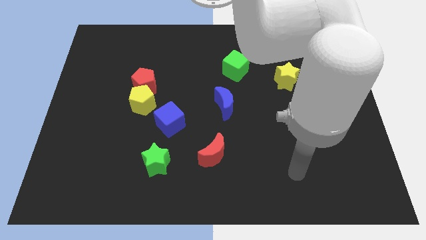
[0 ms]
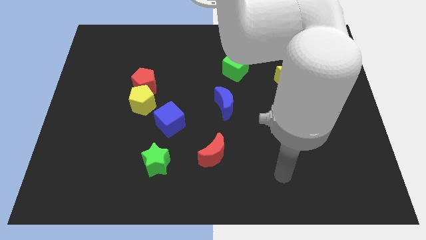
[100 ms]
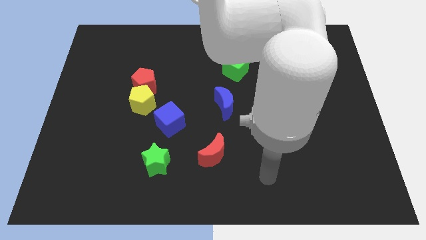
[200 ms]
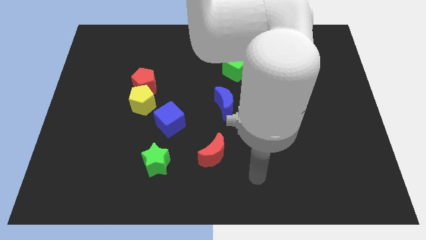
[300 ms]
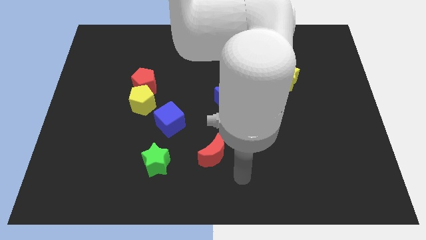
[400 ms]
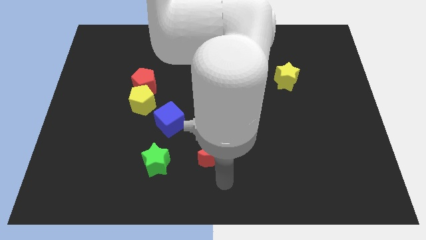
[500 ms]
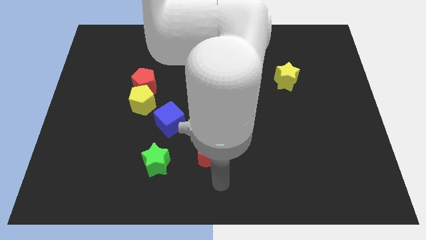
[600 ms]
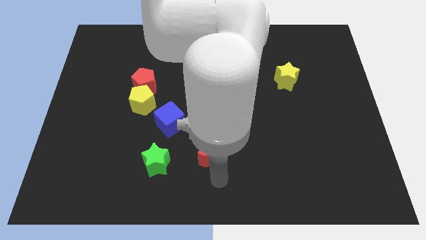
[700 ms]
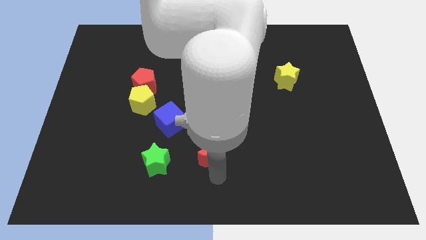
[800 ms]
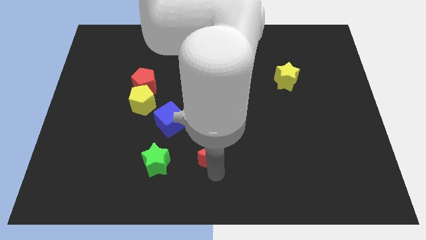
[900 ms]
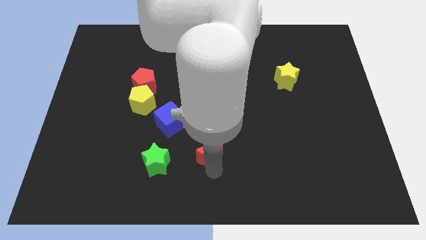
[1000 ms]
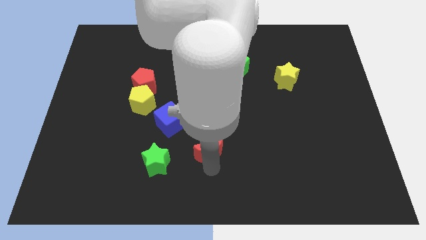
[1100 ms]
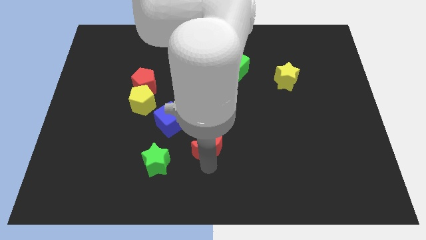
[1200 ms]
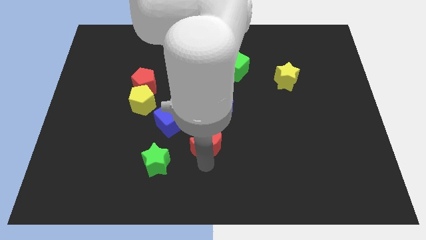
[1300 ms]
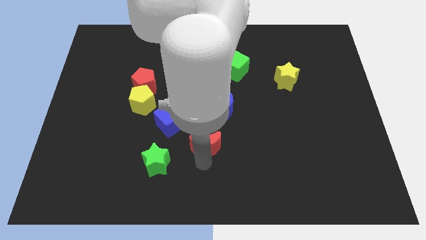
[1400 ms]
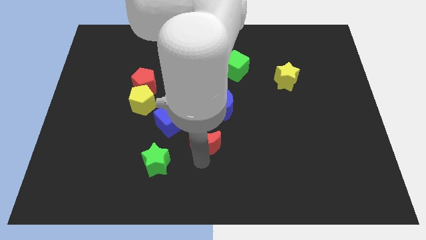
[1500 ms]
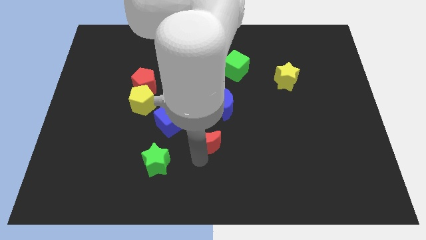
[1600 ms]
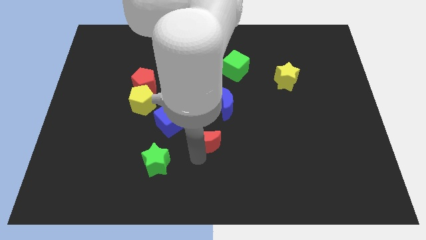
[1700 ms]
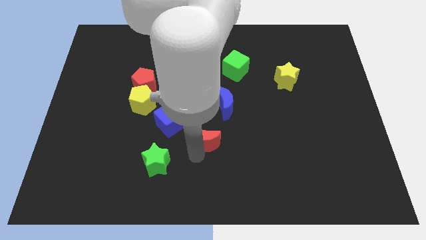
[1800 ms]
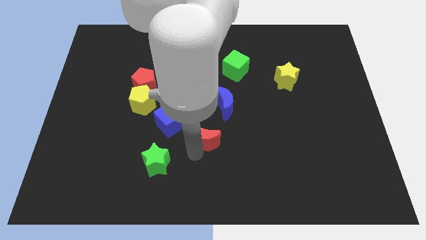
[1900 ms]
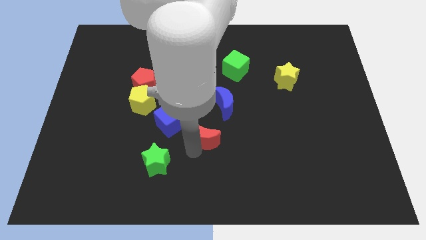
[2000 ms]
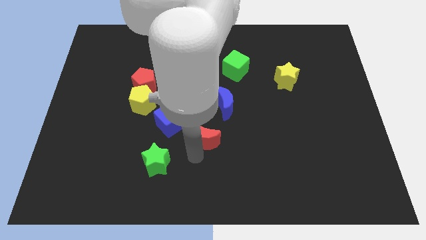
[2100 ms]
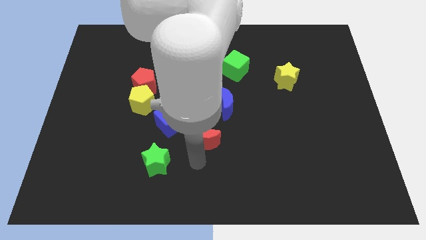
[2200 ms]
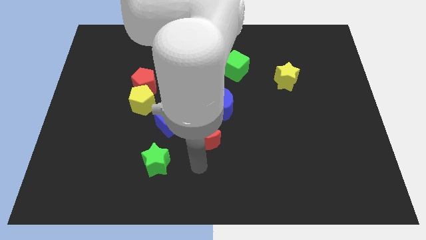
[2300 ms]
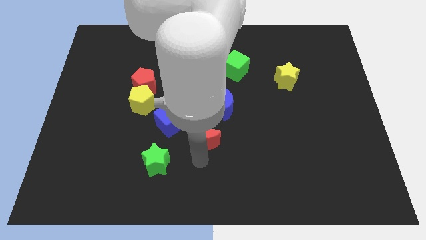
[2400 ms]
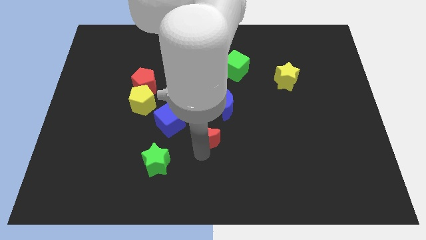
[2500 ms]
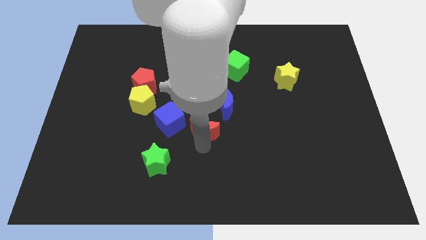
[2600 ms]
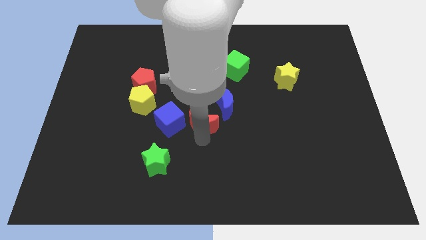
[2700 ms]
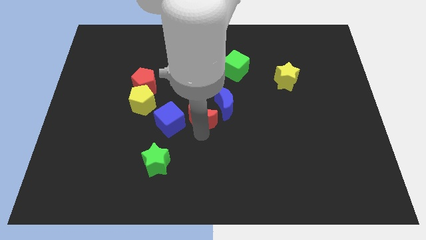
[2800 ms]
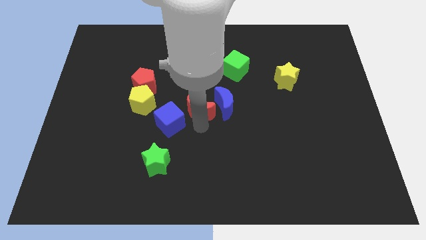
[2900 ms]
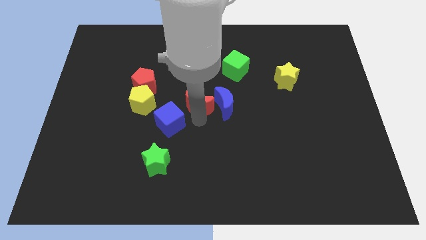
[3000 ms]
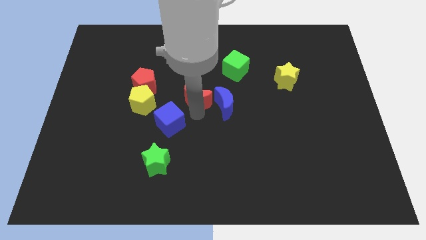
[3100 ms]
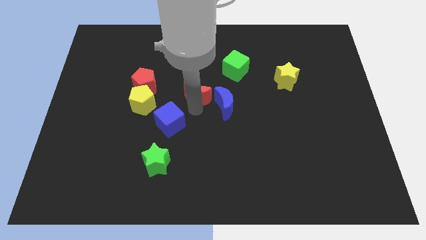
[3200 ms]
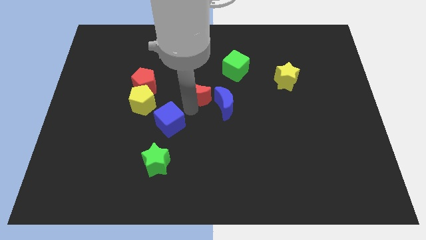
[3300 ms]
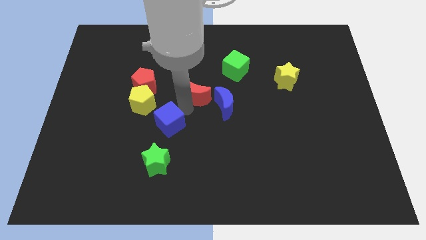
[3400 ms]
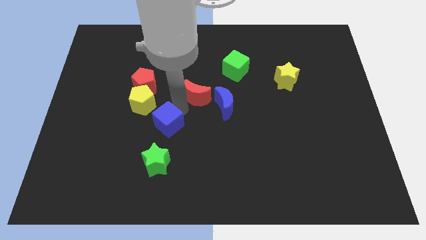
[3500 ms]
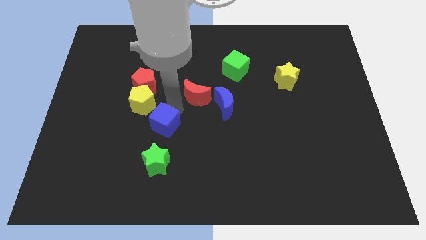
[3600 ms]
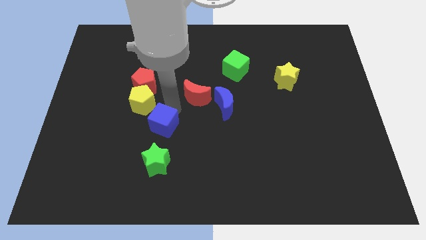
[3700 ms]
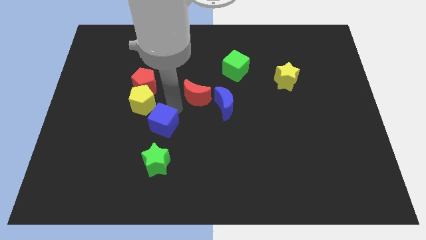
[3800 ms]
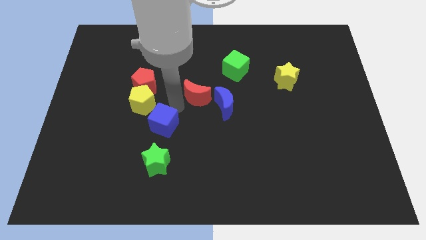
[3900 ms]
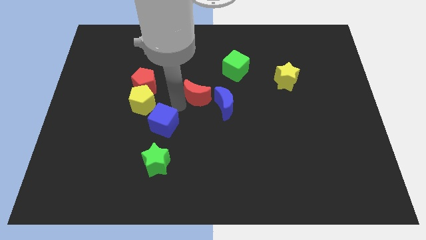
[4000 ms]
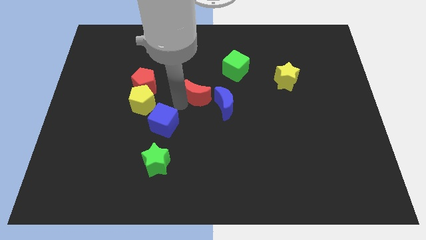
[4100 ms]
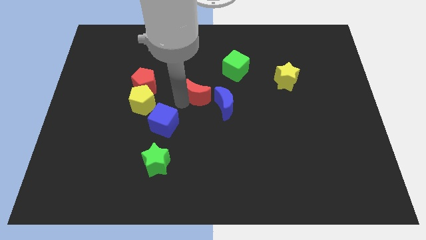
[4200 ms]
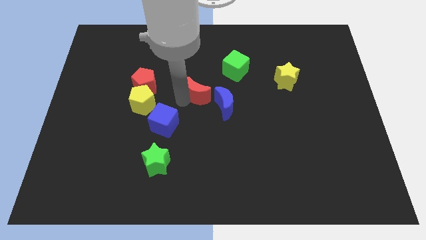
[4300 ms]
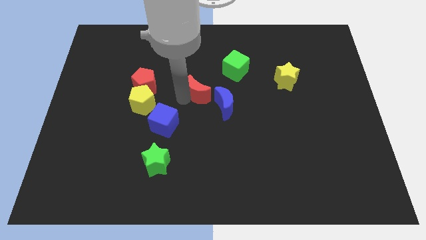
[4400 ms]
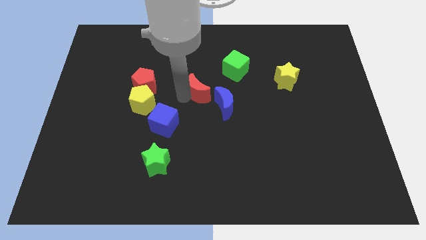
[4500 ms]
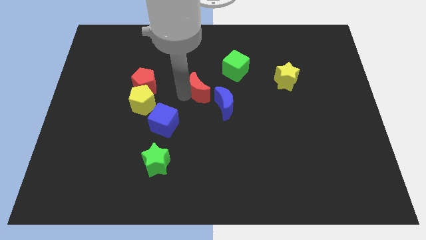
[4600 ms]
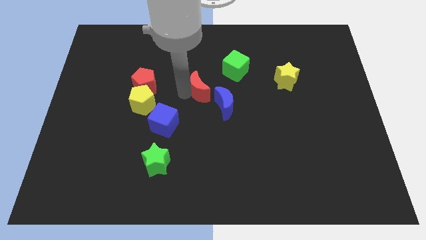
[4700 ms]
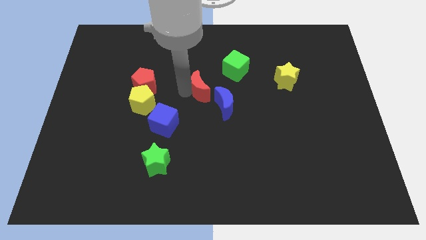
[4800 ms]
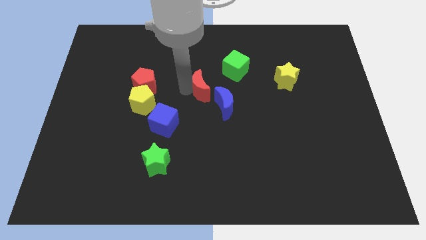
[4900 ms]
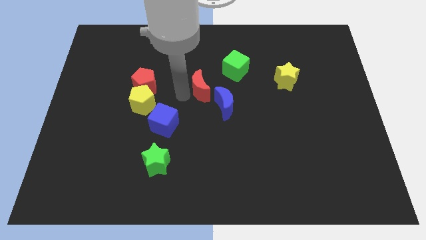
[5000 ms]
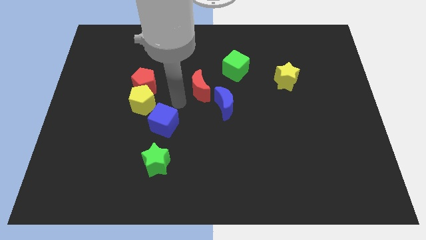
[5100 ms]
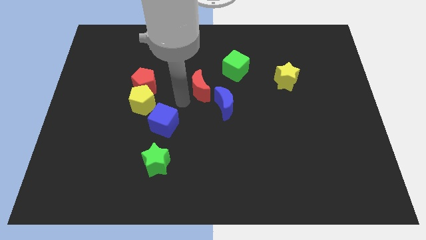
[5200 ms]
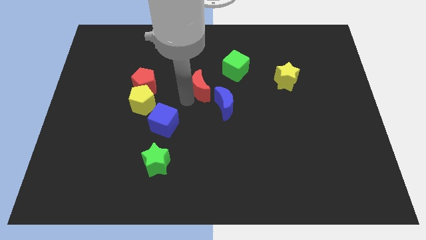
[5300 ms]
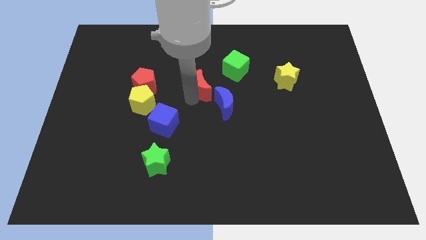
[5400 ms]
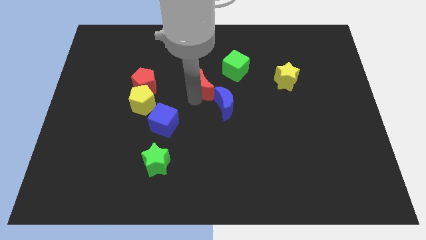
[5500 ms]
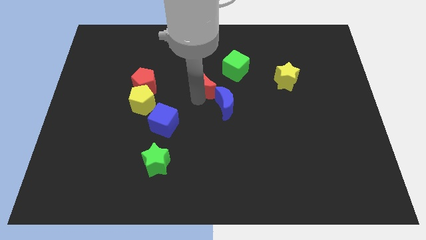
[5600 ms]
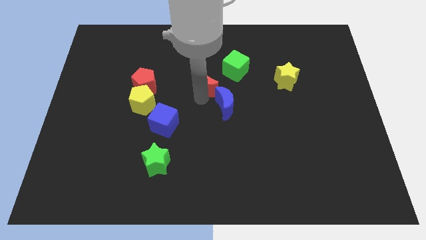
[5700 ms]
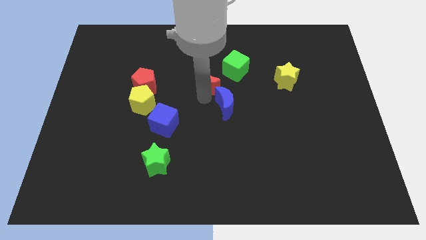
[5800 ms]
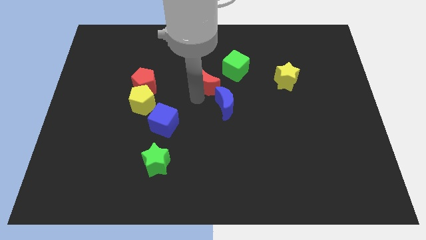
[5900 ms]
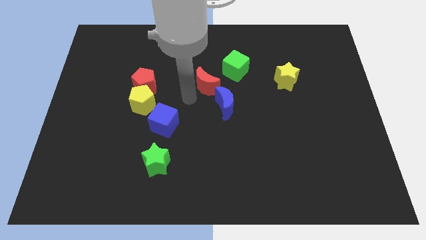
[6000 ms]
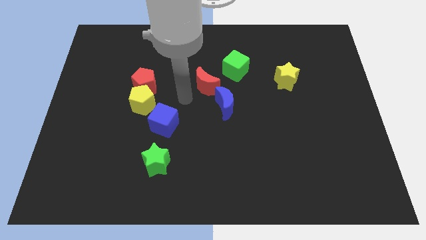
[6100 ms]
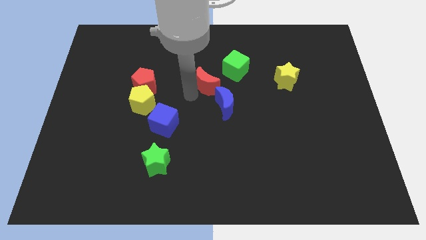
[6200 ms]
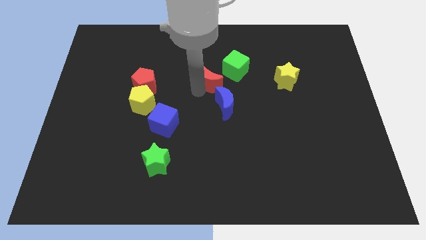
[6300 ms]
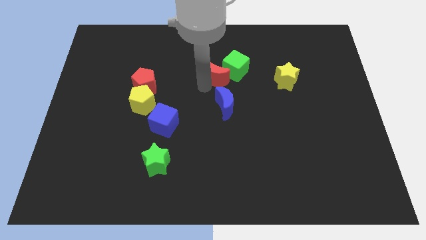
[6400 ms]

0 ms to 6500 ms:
slide the red moon towards the green cube
